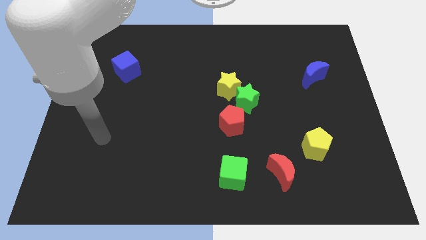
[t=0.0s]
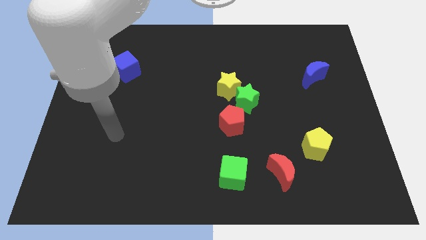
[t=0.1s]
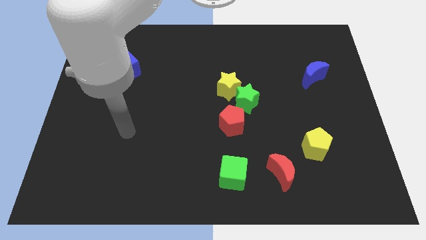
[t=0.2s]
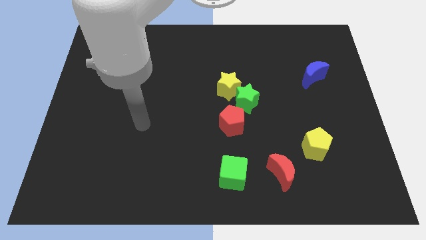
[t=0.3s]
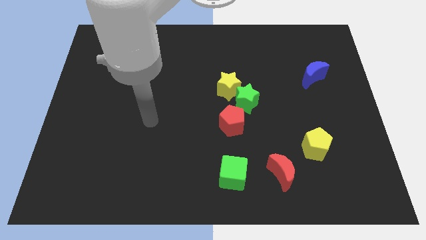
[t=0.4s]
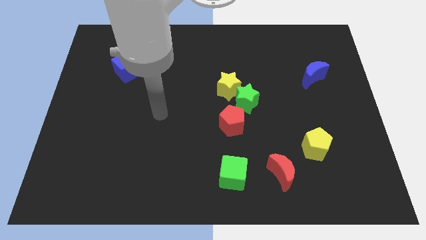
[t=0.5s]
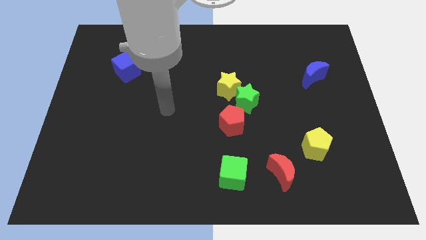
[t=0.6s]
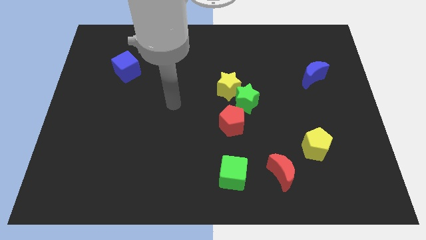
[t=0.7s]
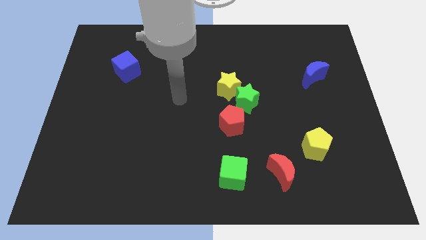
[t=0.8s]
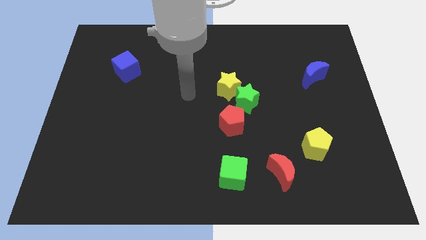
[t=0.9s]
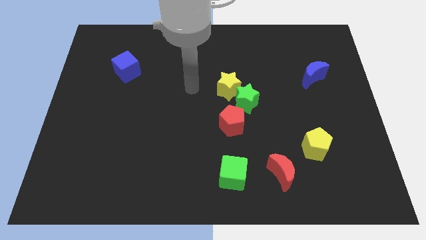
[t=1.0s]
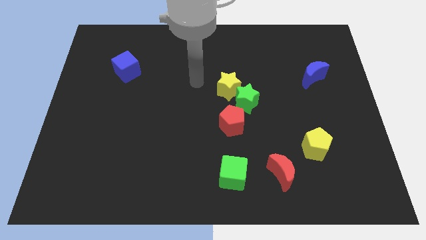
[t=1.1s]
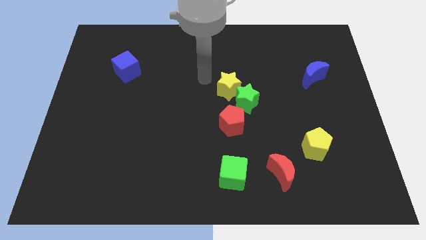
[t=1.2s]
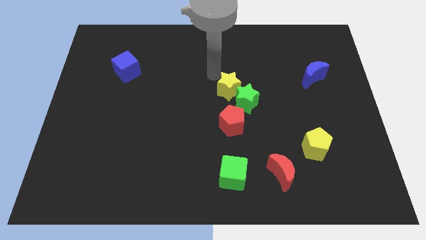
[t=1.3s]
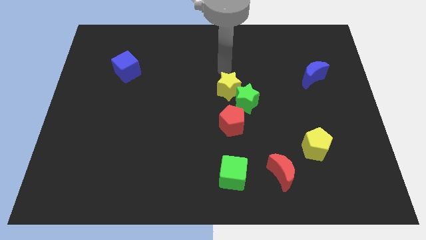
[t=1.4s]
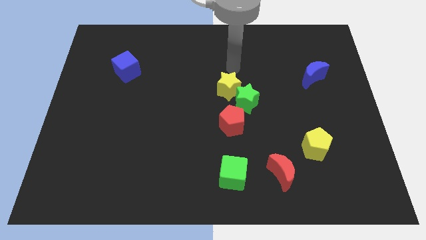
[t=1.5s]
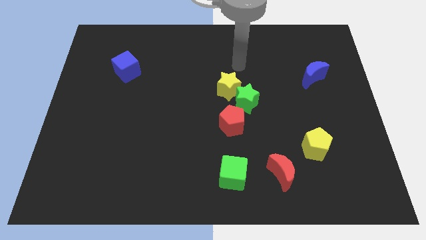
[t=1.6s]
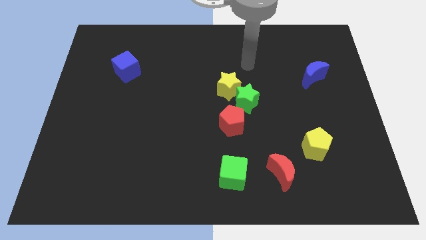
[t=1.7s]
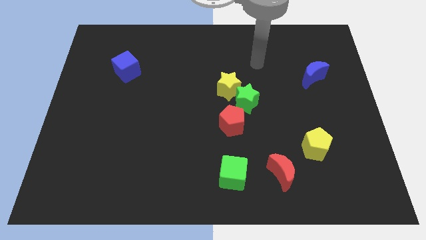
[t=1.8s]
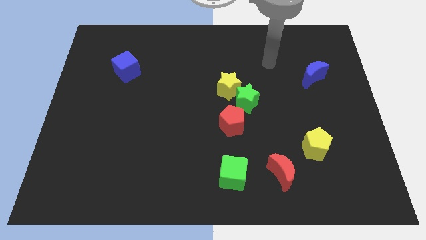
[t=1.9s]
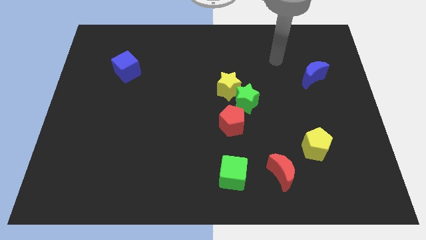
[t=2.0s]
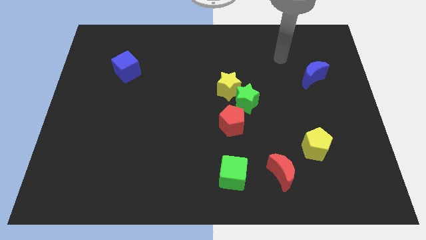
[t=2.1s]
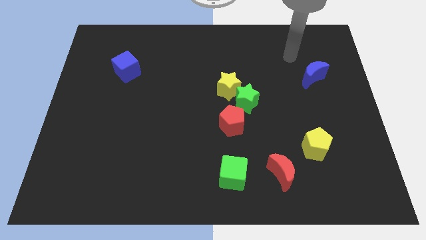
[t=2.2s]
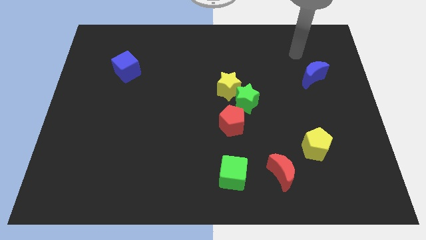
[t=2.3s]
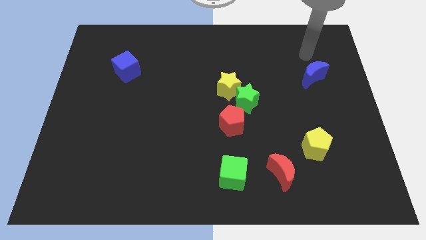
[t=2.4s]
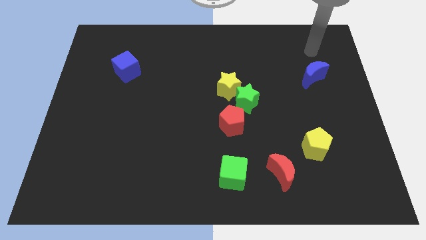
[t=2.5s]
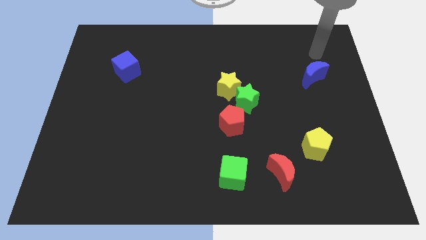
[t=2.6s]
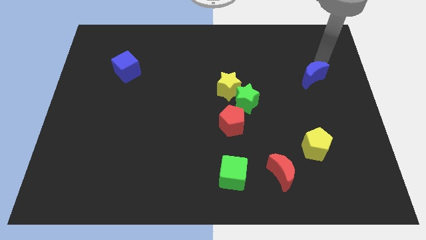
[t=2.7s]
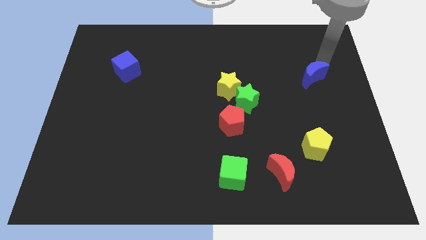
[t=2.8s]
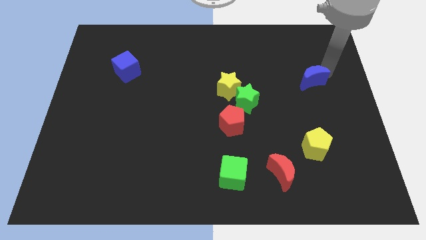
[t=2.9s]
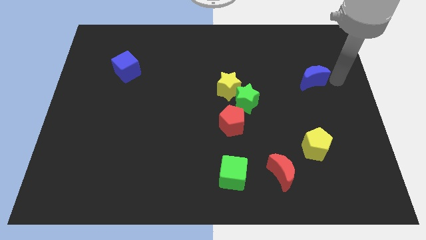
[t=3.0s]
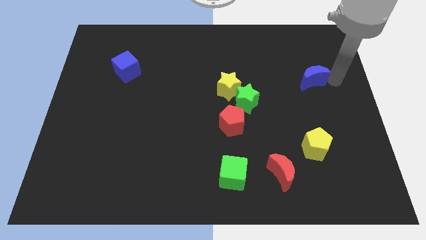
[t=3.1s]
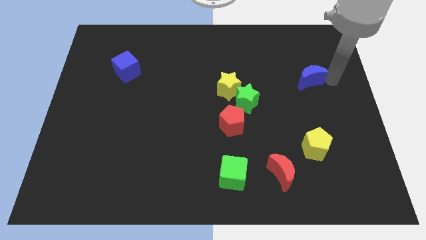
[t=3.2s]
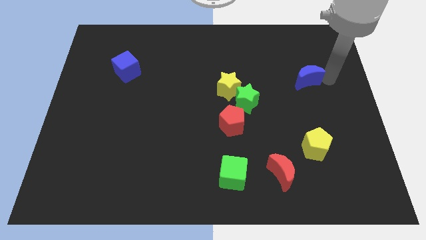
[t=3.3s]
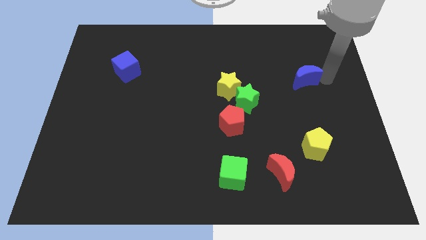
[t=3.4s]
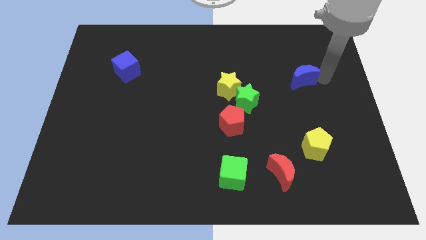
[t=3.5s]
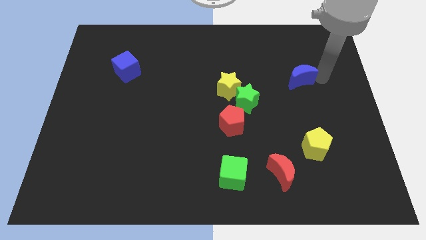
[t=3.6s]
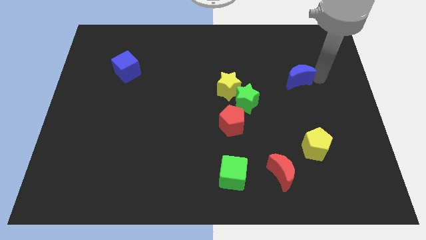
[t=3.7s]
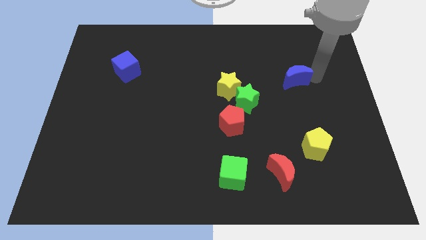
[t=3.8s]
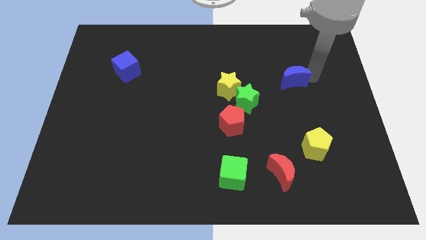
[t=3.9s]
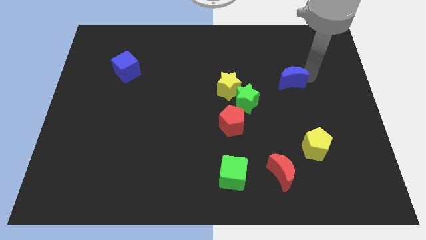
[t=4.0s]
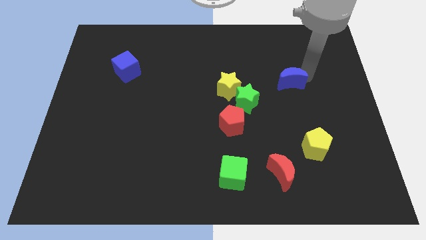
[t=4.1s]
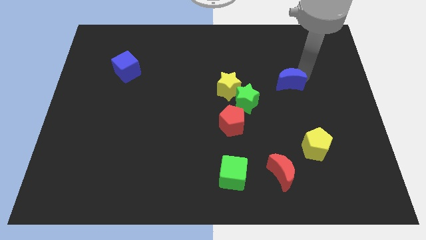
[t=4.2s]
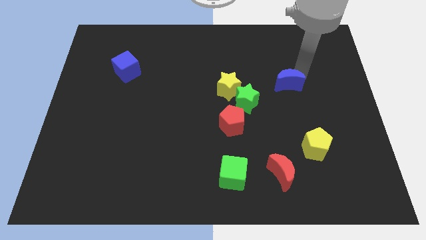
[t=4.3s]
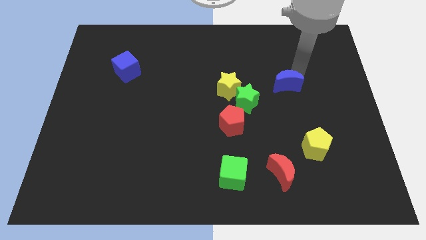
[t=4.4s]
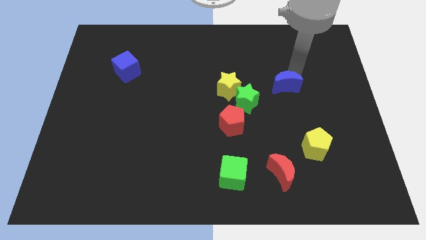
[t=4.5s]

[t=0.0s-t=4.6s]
slide the blue moon to the left a little

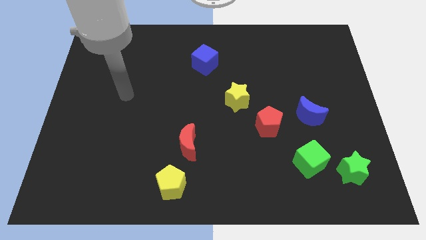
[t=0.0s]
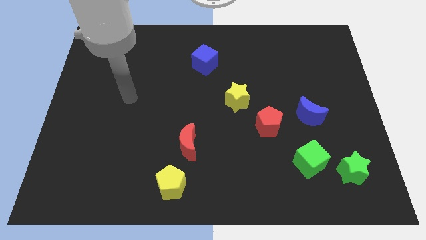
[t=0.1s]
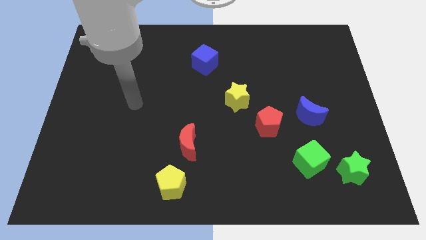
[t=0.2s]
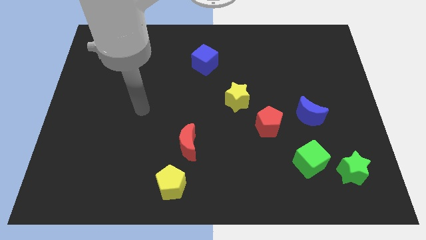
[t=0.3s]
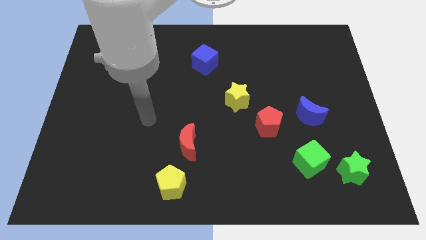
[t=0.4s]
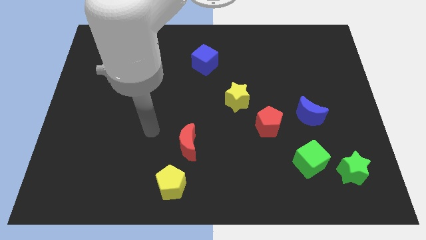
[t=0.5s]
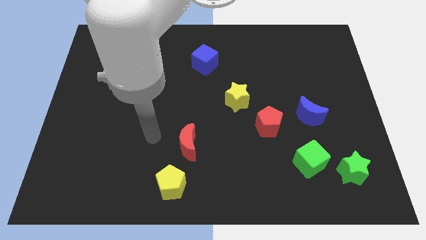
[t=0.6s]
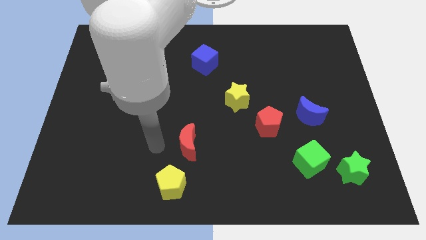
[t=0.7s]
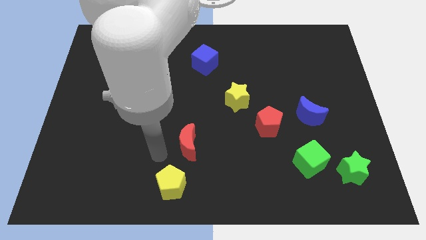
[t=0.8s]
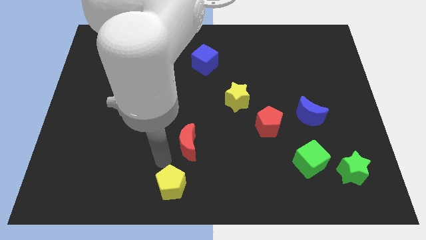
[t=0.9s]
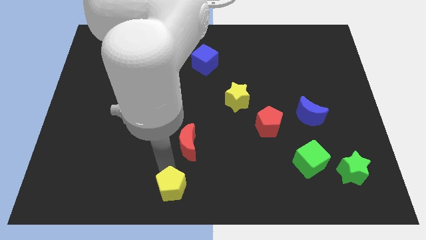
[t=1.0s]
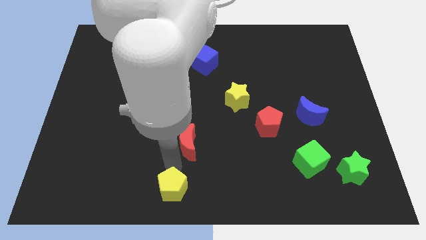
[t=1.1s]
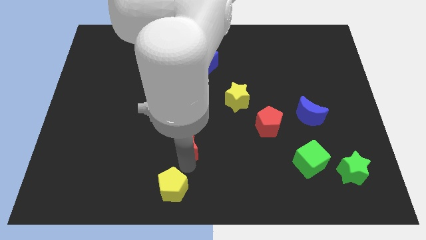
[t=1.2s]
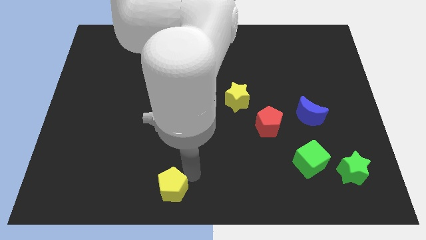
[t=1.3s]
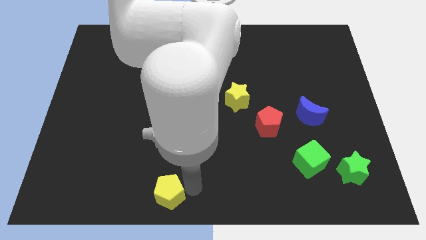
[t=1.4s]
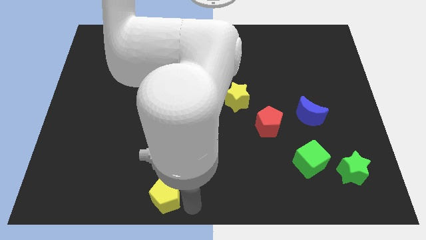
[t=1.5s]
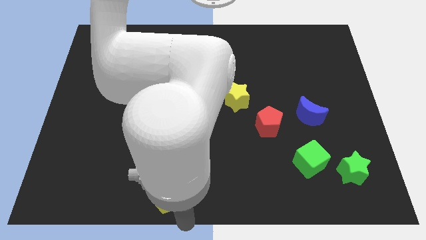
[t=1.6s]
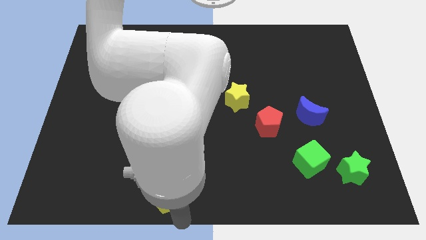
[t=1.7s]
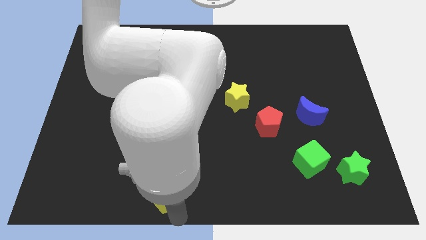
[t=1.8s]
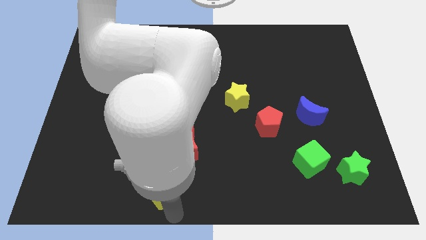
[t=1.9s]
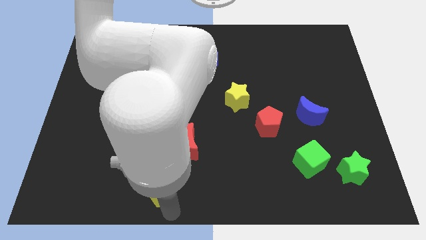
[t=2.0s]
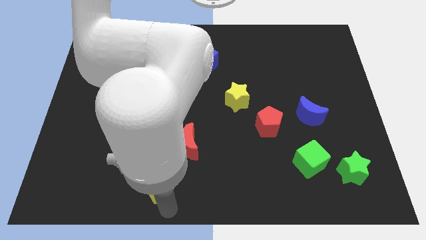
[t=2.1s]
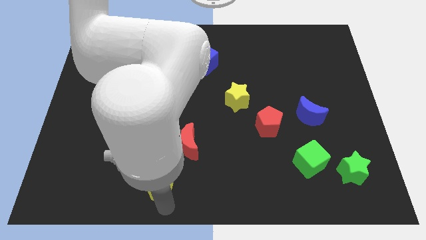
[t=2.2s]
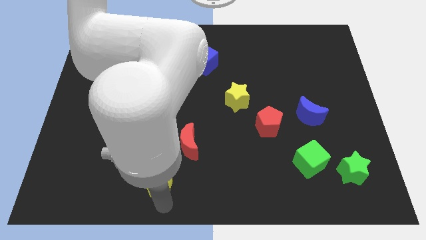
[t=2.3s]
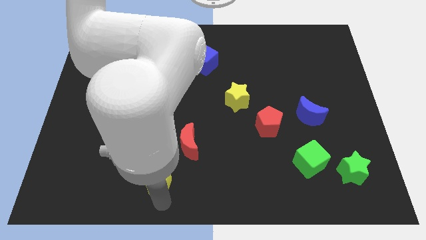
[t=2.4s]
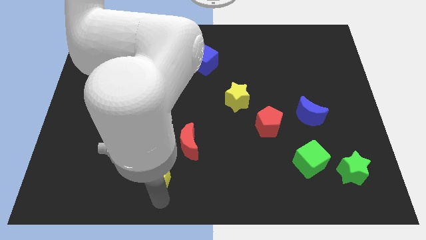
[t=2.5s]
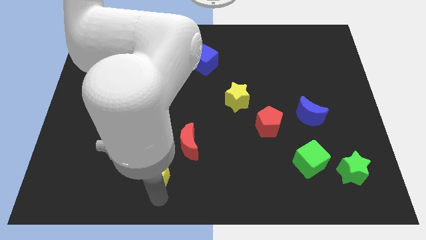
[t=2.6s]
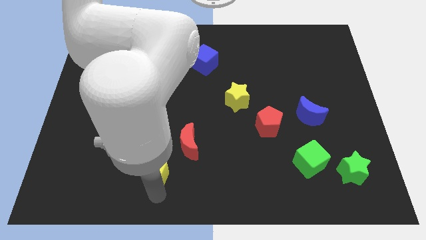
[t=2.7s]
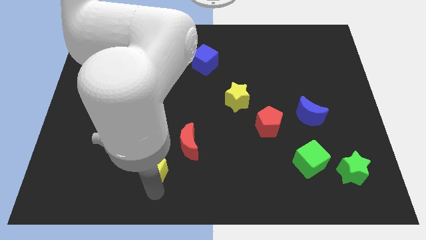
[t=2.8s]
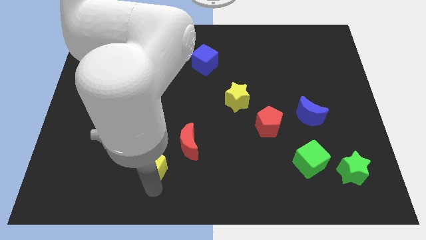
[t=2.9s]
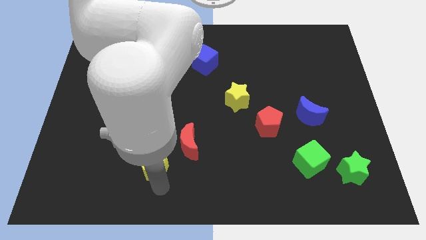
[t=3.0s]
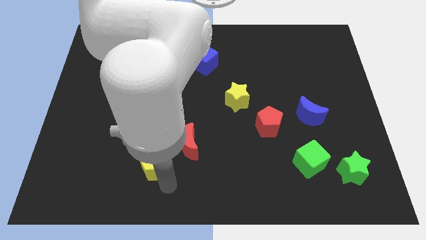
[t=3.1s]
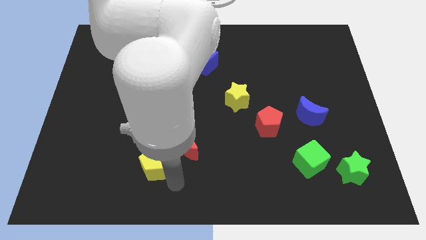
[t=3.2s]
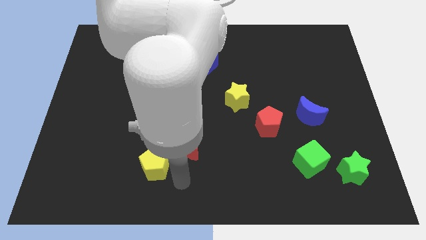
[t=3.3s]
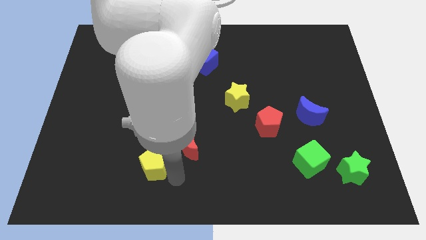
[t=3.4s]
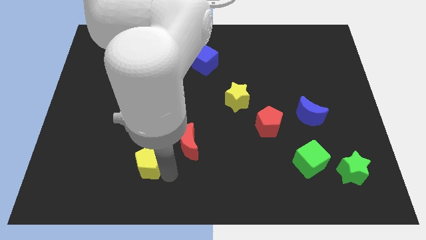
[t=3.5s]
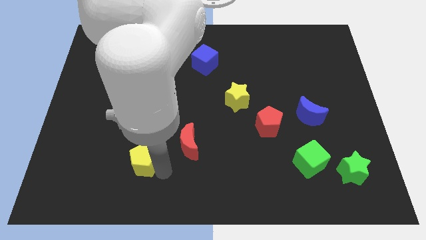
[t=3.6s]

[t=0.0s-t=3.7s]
move the yellow pentagon slightly diagonally upwards and to the left

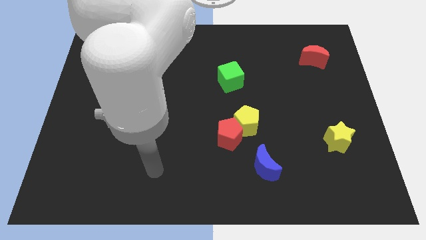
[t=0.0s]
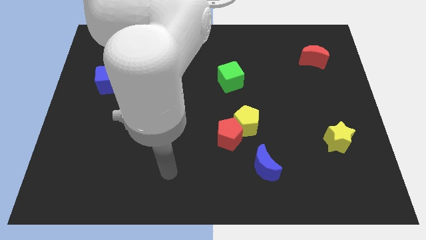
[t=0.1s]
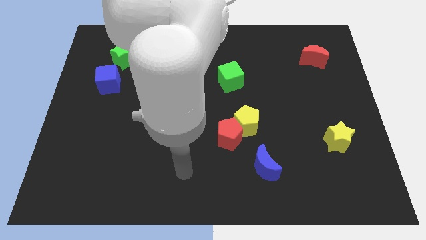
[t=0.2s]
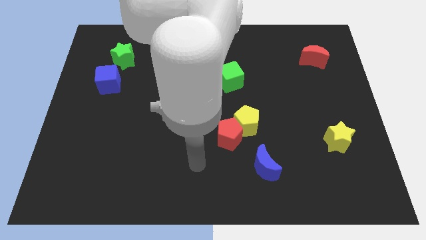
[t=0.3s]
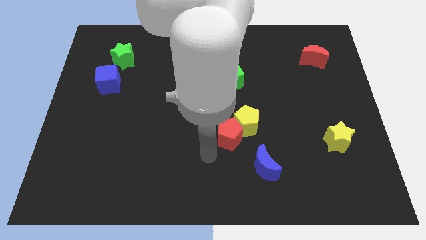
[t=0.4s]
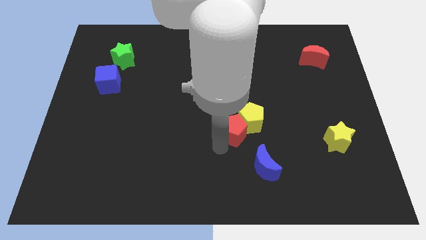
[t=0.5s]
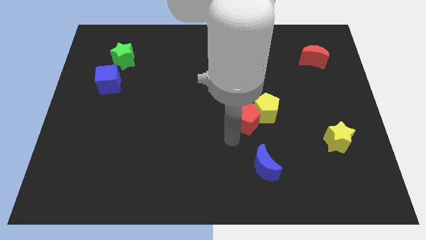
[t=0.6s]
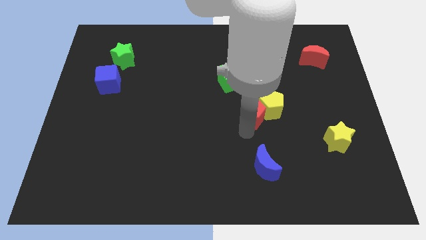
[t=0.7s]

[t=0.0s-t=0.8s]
slightly move the yellow pentagon diagonally up and to the right
